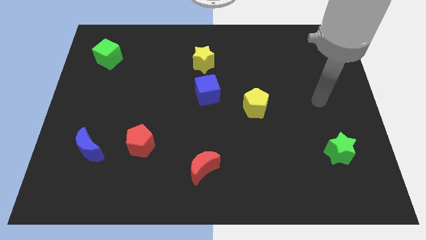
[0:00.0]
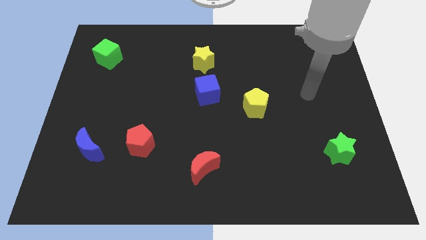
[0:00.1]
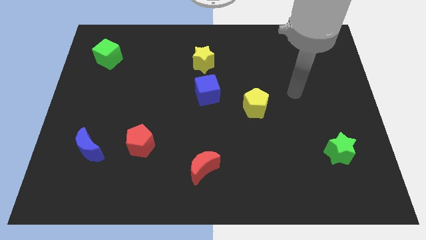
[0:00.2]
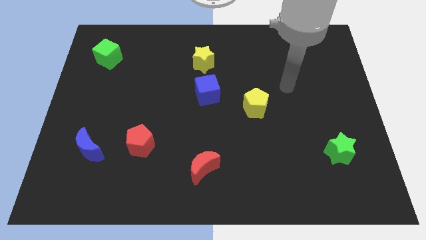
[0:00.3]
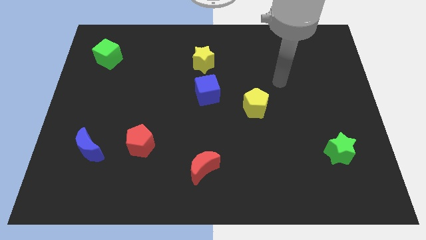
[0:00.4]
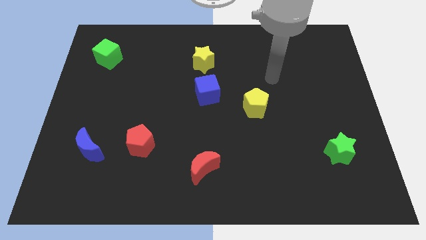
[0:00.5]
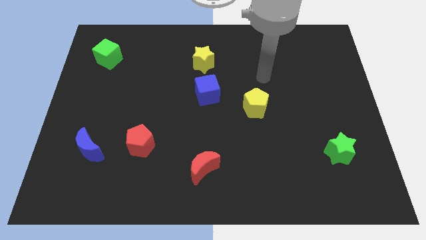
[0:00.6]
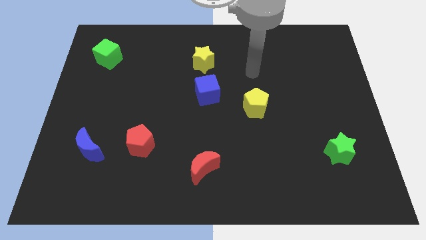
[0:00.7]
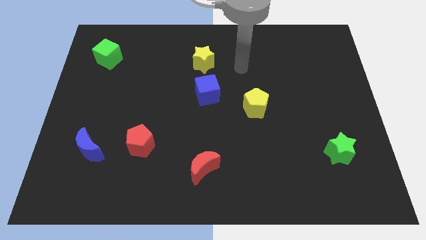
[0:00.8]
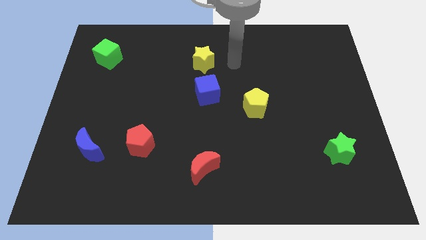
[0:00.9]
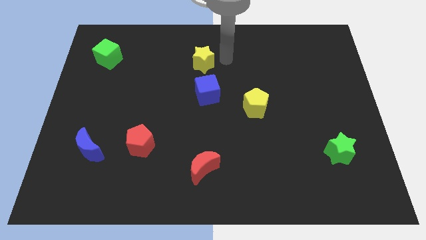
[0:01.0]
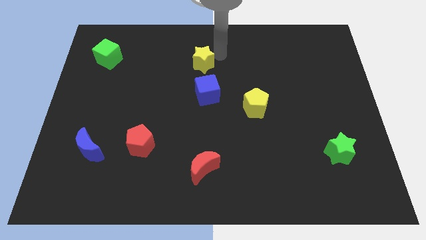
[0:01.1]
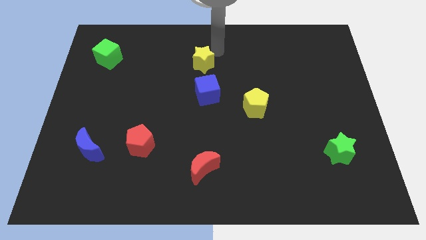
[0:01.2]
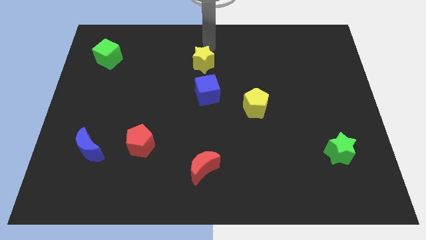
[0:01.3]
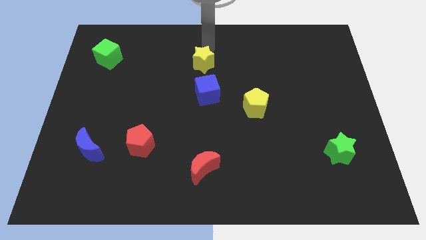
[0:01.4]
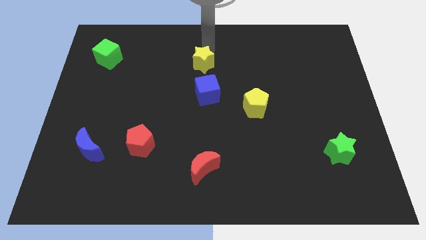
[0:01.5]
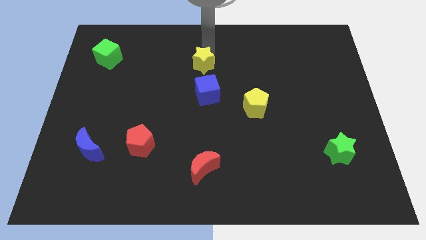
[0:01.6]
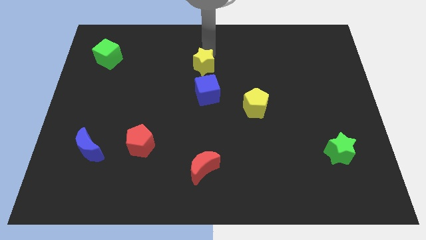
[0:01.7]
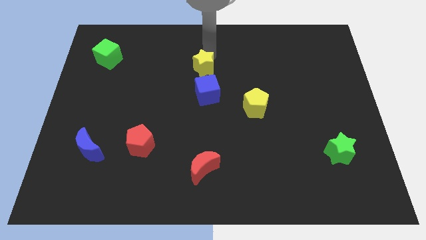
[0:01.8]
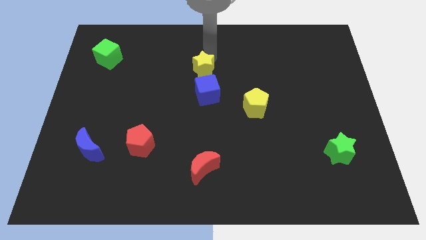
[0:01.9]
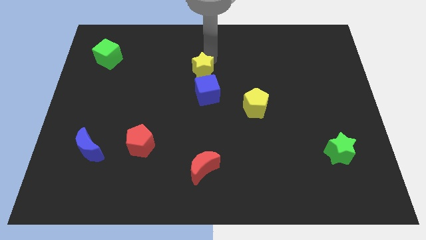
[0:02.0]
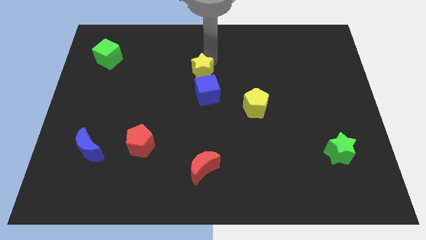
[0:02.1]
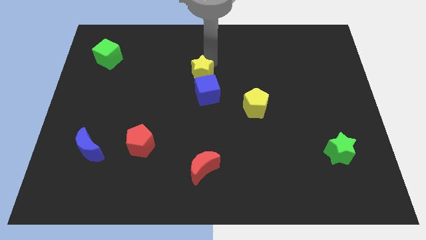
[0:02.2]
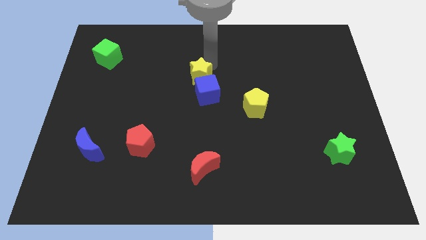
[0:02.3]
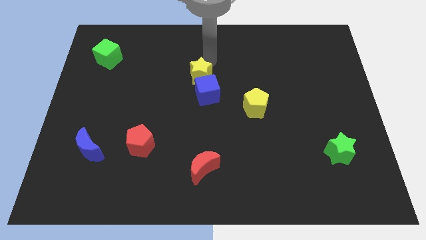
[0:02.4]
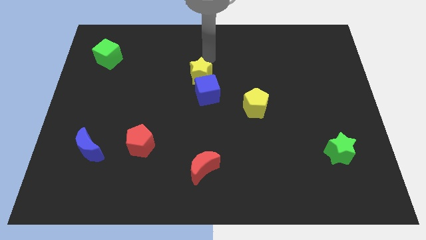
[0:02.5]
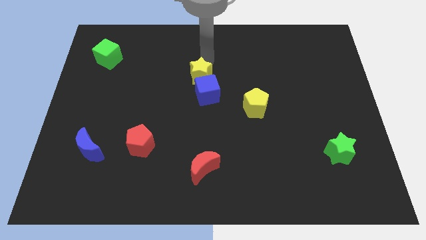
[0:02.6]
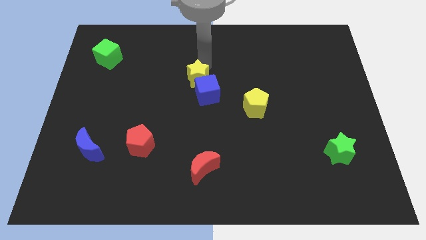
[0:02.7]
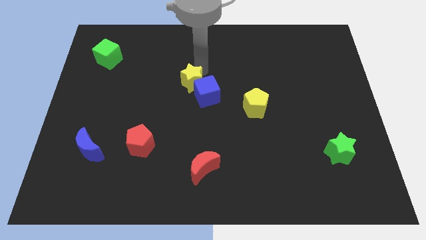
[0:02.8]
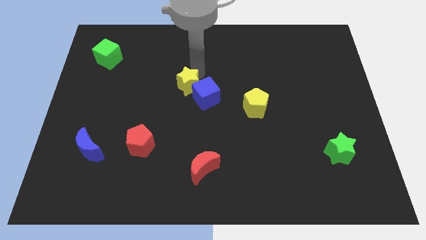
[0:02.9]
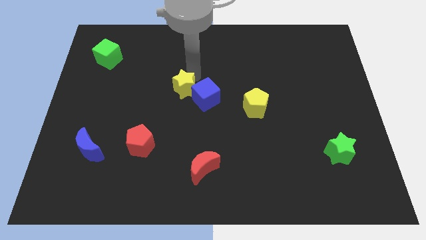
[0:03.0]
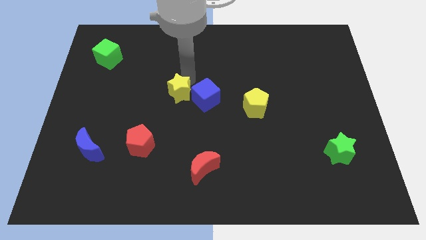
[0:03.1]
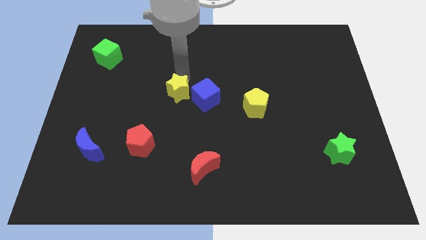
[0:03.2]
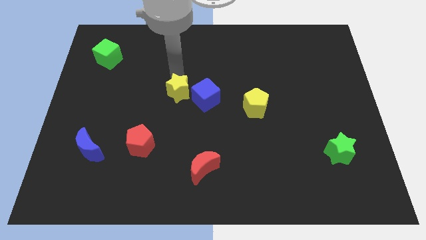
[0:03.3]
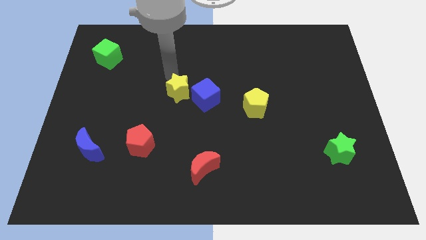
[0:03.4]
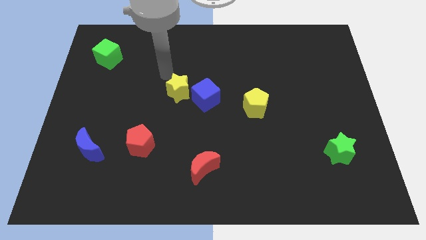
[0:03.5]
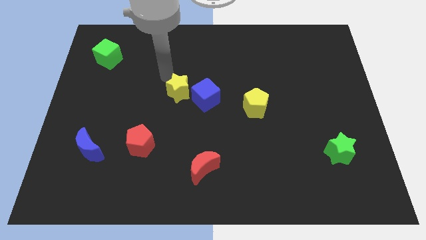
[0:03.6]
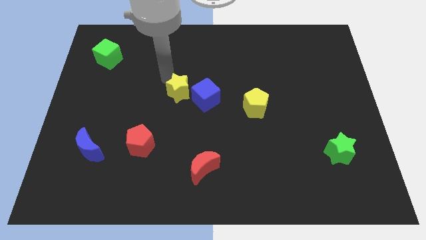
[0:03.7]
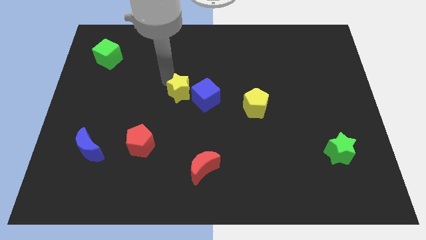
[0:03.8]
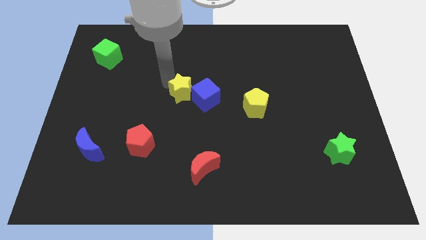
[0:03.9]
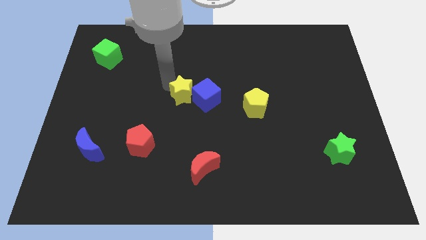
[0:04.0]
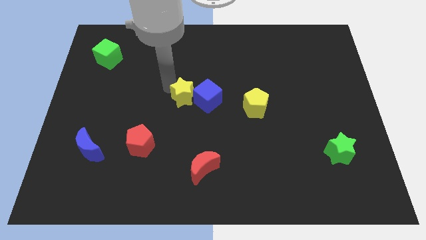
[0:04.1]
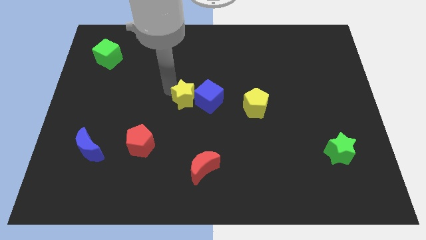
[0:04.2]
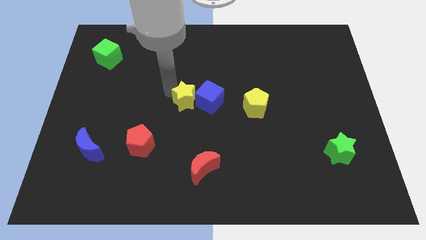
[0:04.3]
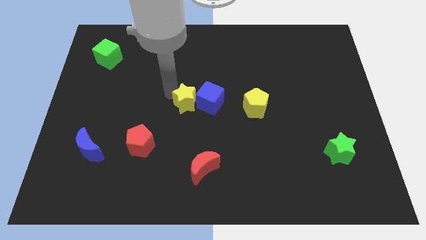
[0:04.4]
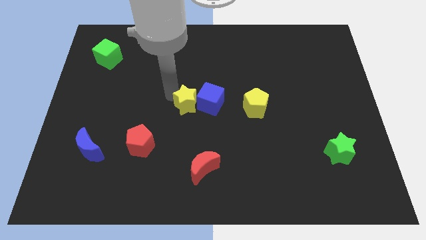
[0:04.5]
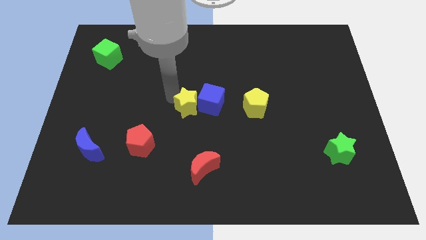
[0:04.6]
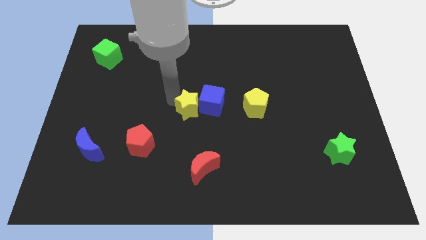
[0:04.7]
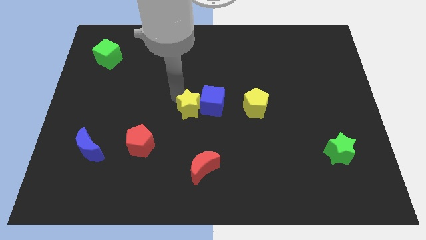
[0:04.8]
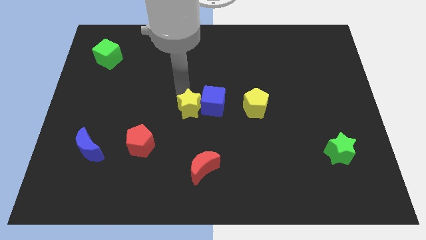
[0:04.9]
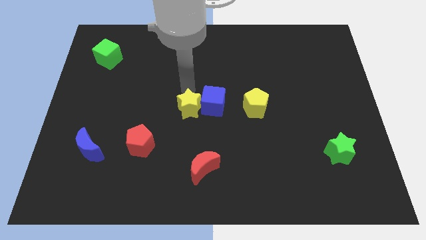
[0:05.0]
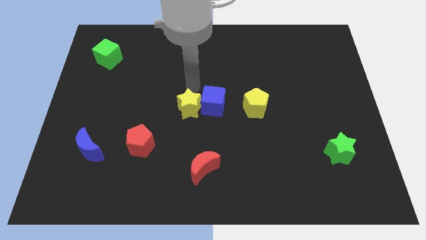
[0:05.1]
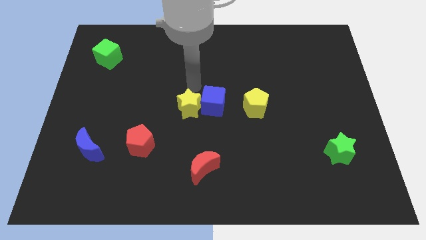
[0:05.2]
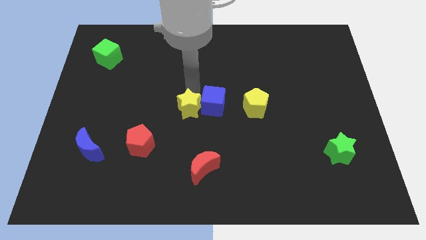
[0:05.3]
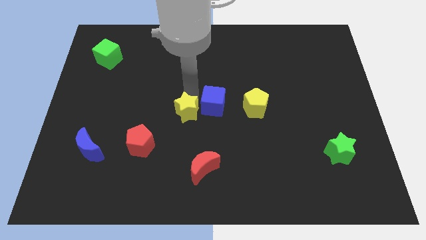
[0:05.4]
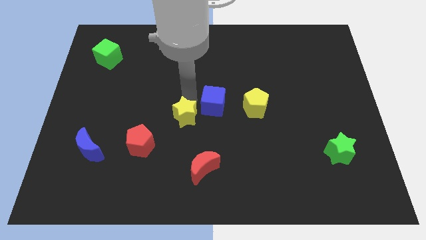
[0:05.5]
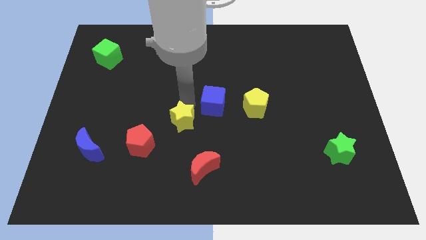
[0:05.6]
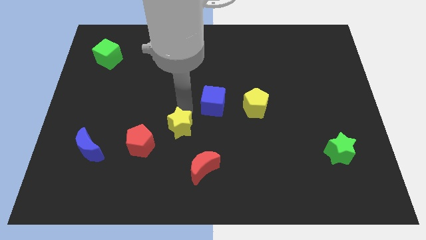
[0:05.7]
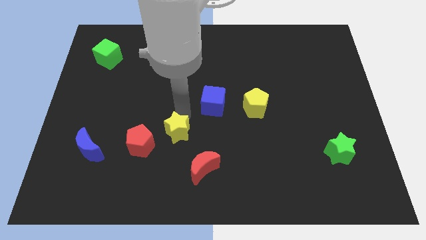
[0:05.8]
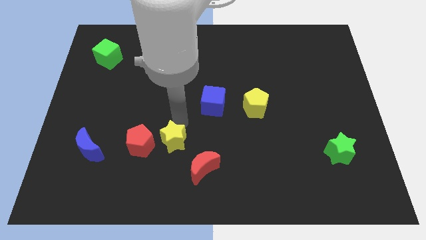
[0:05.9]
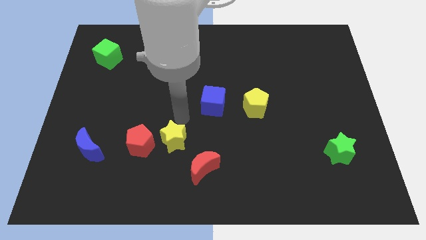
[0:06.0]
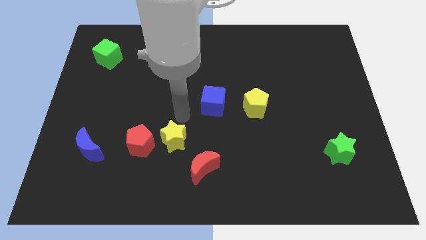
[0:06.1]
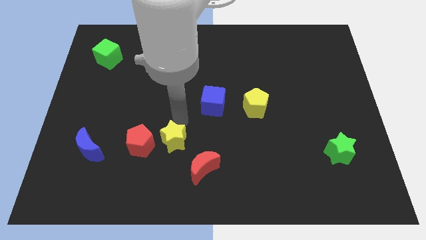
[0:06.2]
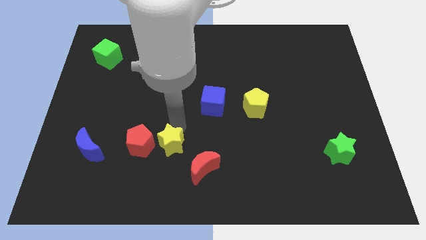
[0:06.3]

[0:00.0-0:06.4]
put the yellow star to the bottom right of the red pentagon

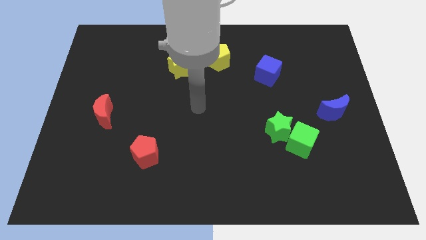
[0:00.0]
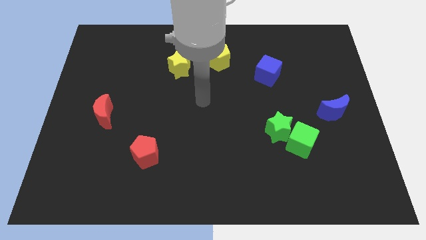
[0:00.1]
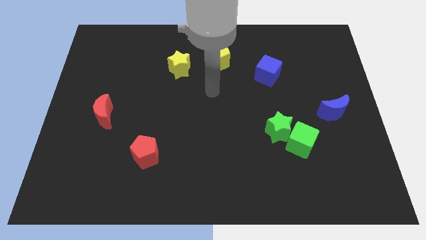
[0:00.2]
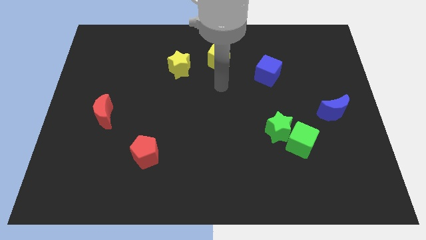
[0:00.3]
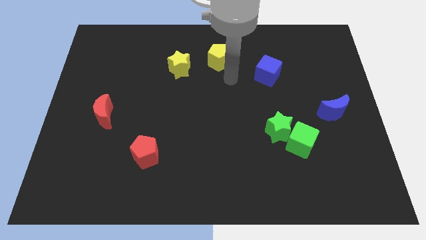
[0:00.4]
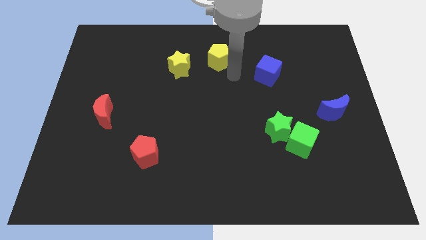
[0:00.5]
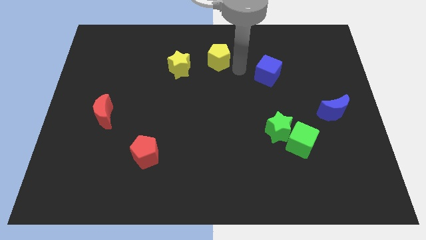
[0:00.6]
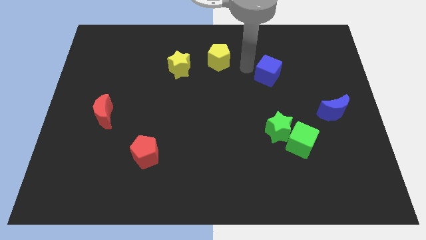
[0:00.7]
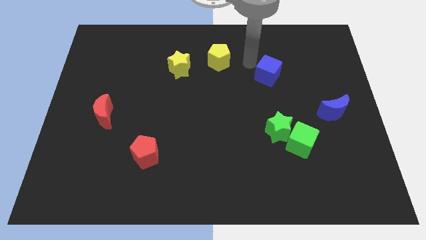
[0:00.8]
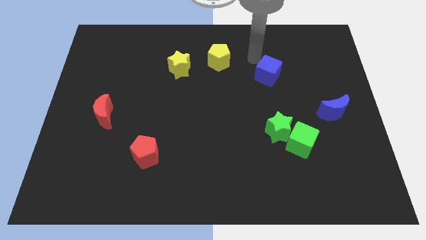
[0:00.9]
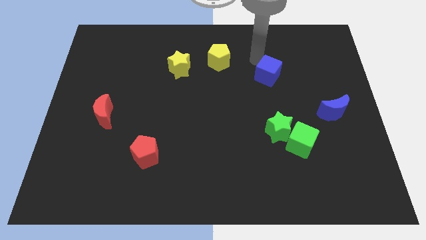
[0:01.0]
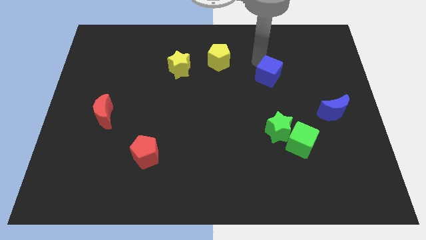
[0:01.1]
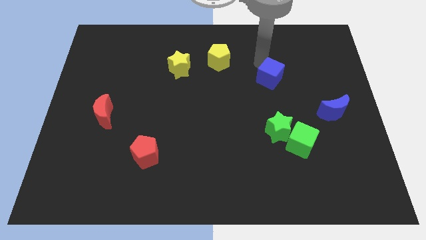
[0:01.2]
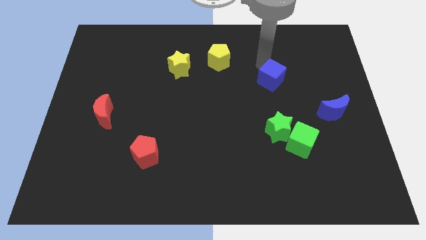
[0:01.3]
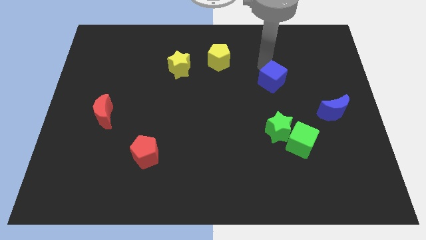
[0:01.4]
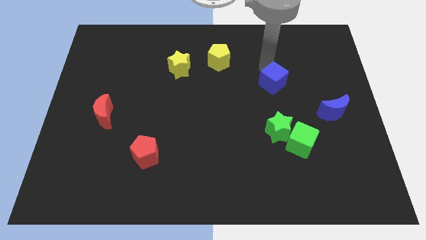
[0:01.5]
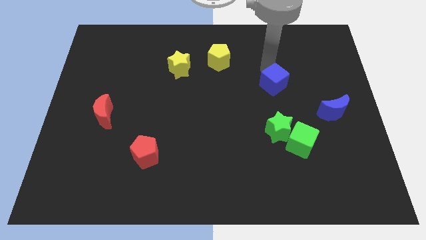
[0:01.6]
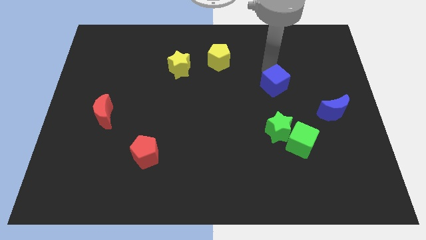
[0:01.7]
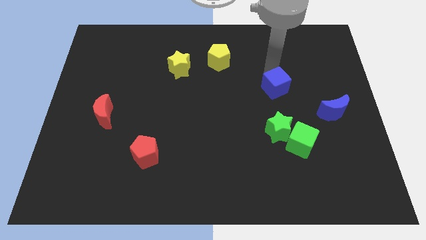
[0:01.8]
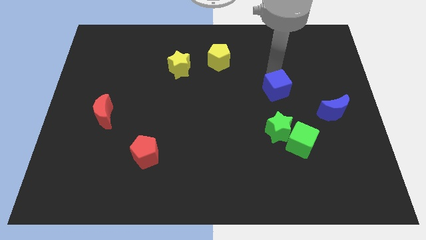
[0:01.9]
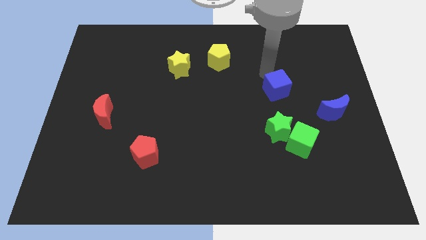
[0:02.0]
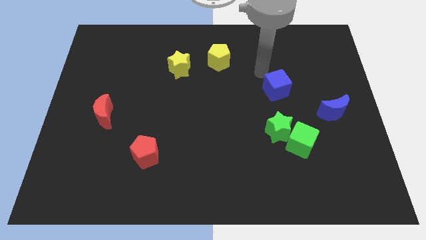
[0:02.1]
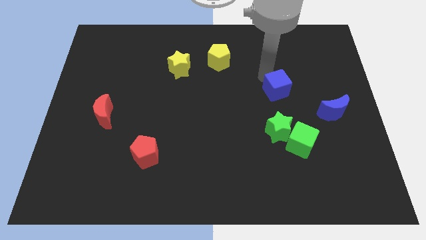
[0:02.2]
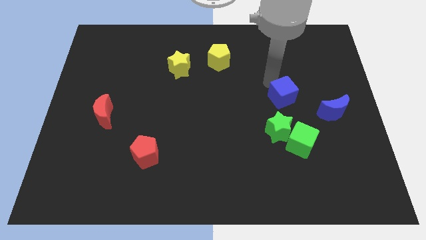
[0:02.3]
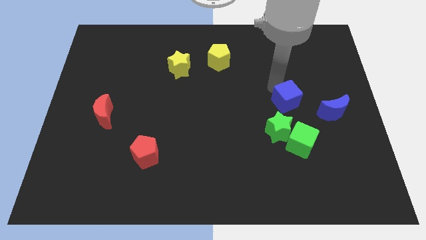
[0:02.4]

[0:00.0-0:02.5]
slide the blue cube diagonally up and to the right of the green star
